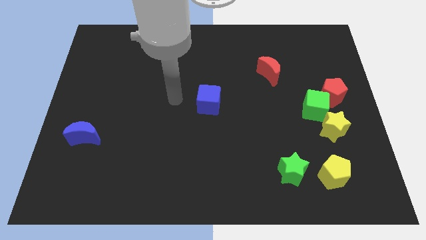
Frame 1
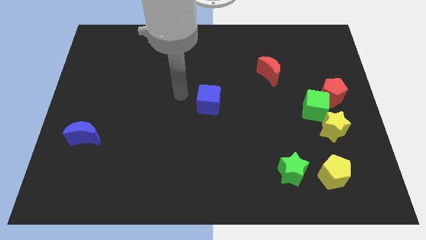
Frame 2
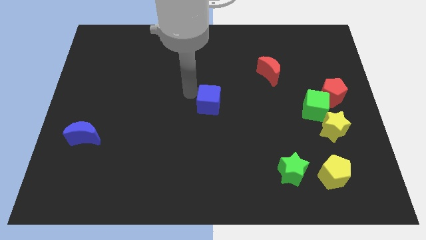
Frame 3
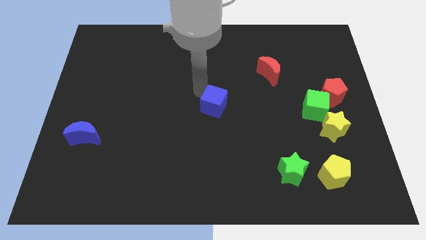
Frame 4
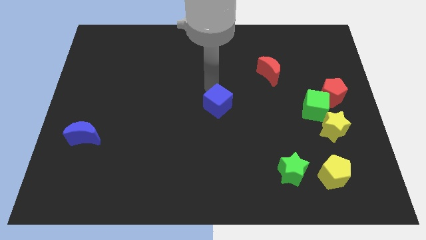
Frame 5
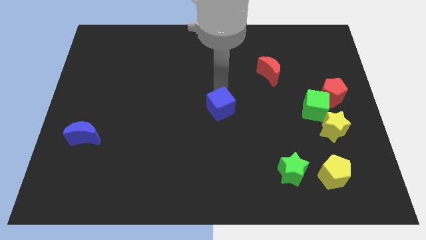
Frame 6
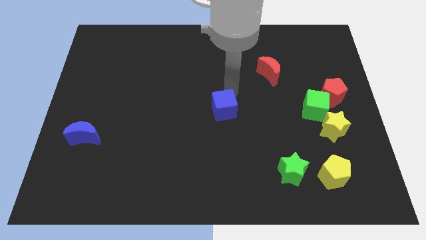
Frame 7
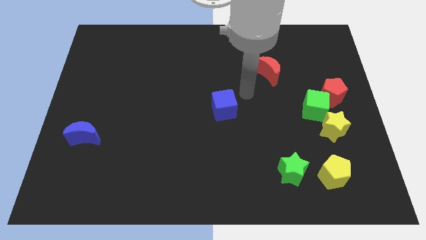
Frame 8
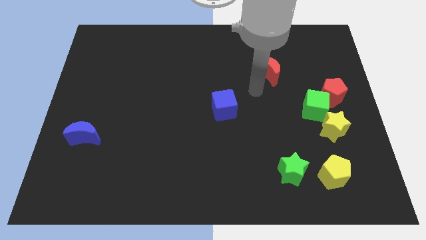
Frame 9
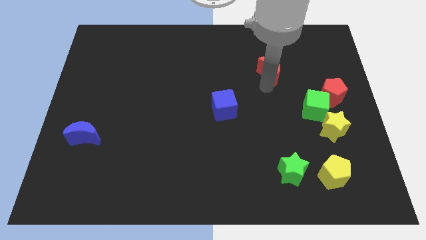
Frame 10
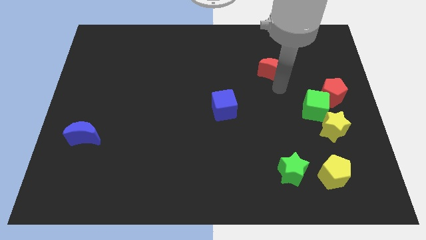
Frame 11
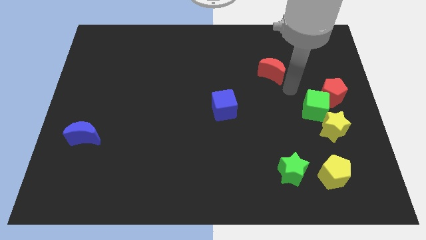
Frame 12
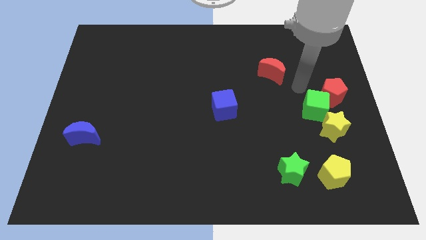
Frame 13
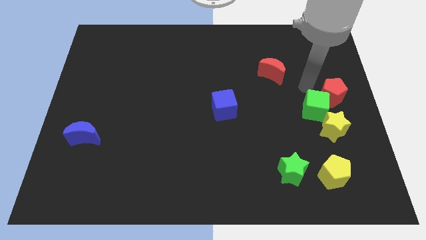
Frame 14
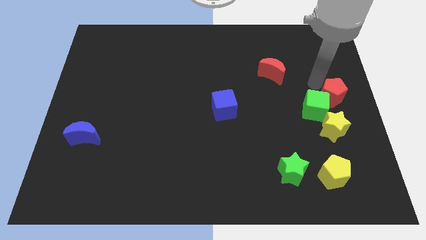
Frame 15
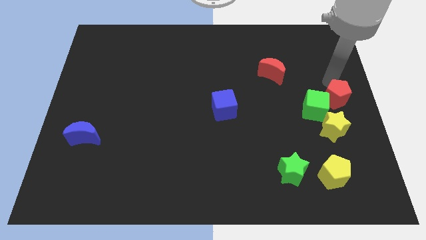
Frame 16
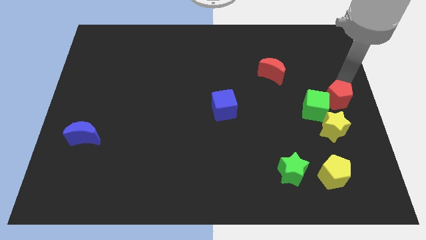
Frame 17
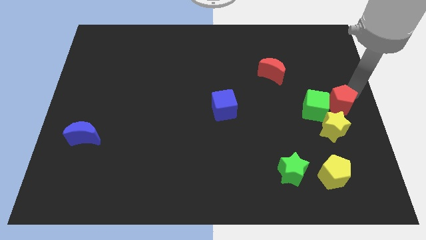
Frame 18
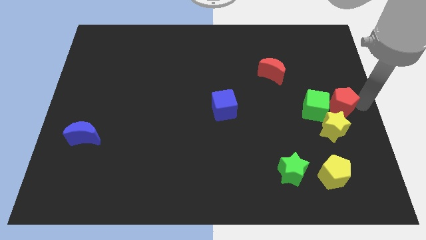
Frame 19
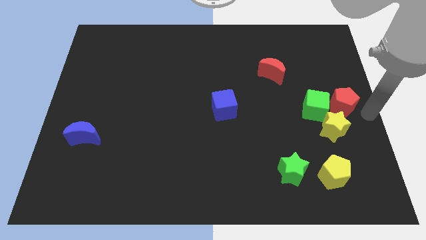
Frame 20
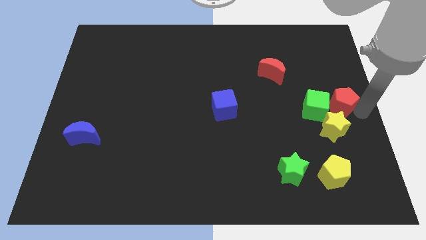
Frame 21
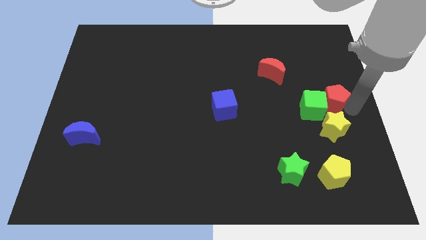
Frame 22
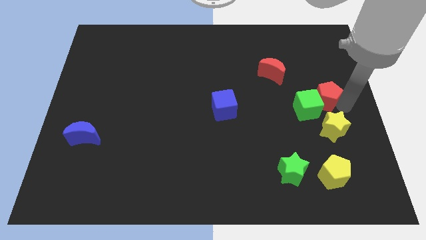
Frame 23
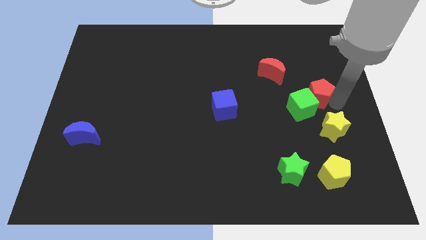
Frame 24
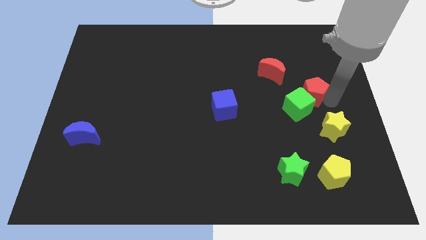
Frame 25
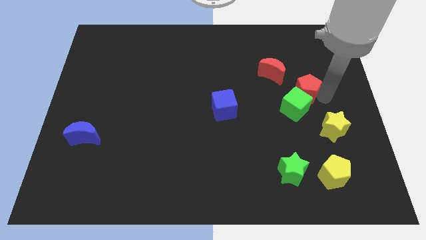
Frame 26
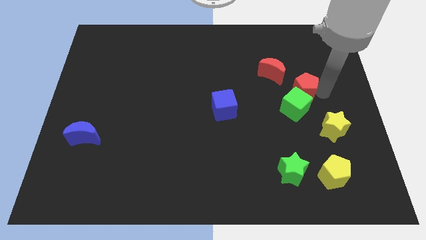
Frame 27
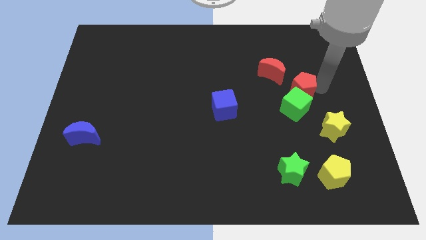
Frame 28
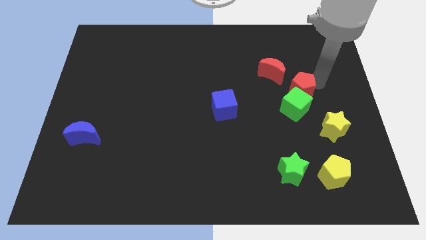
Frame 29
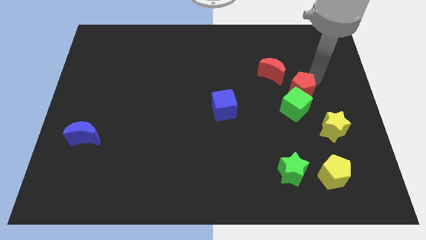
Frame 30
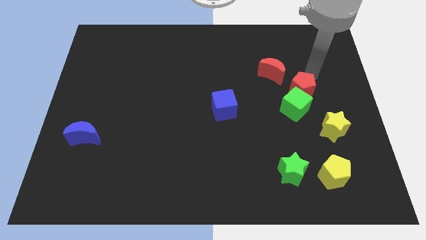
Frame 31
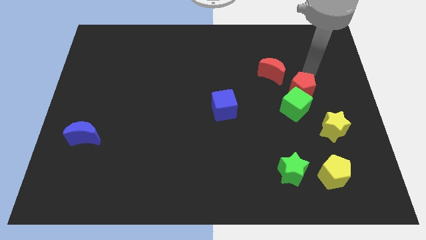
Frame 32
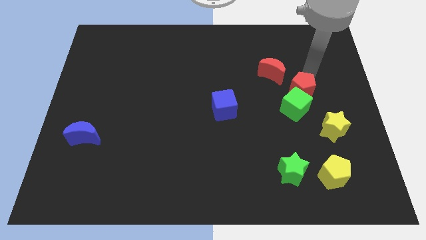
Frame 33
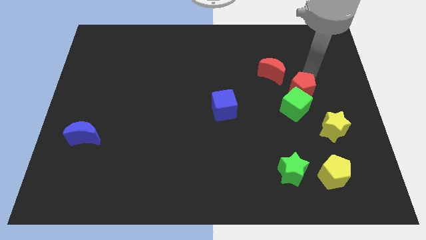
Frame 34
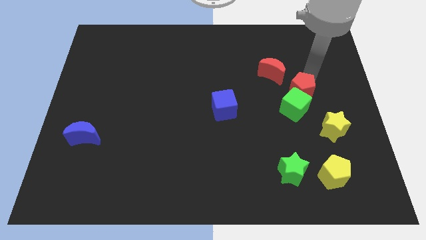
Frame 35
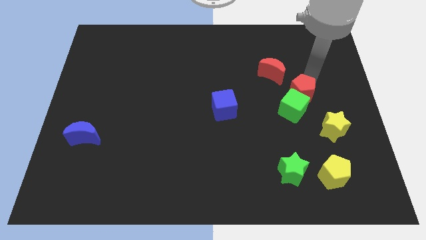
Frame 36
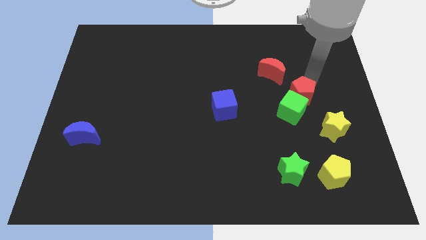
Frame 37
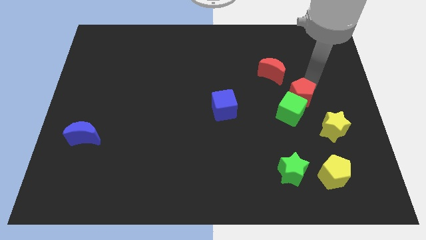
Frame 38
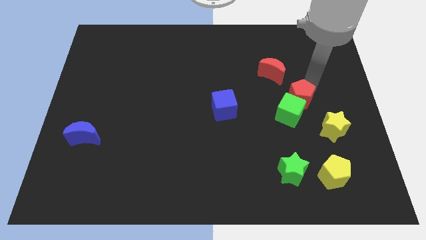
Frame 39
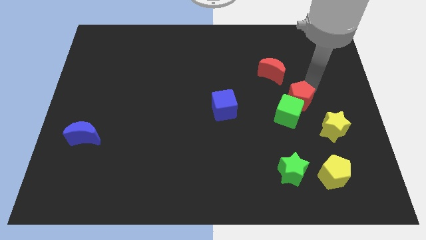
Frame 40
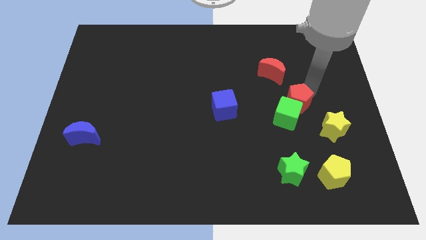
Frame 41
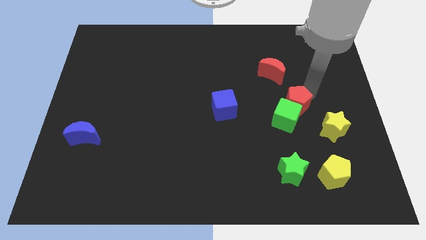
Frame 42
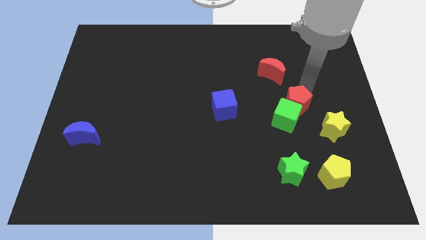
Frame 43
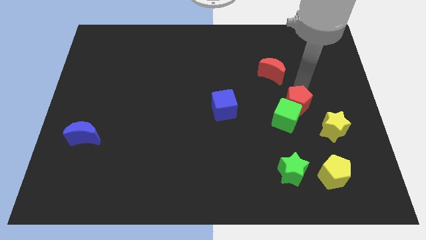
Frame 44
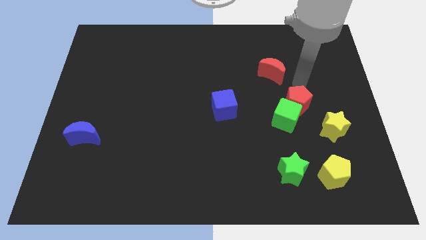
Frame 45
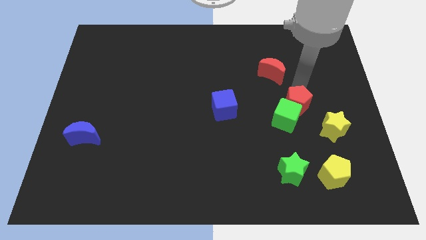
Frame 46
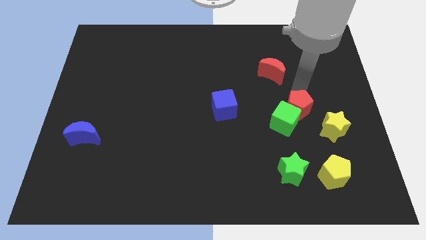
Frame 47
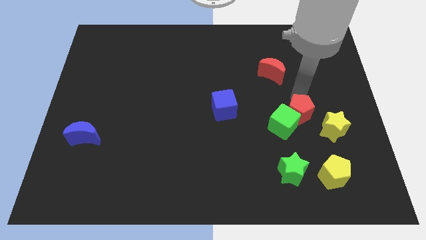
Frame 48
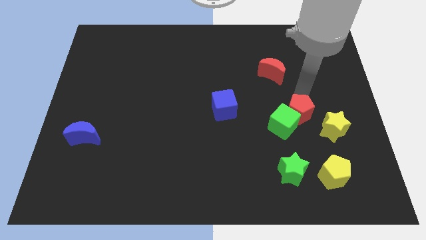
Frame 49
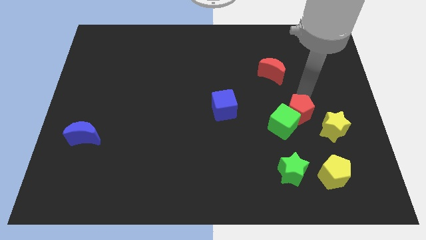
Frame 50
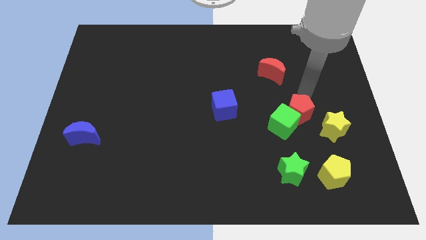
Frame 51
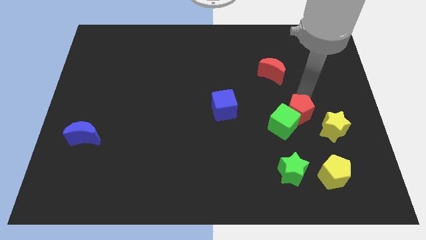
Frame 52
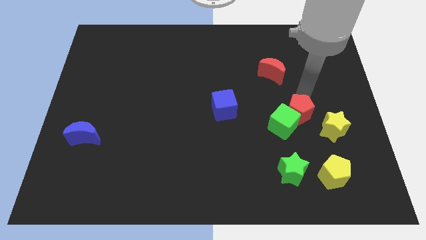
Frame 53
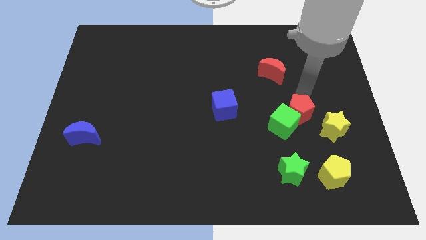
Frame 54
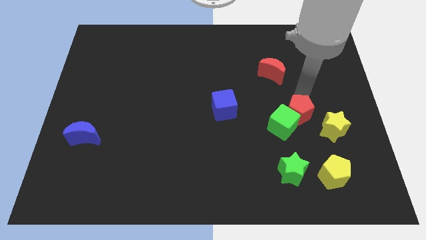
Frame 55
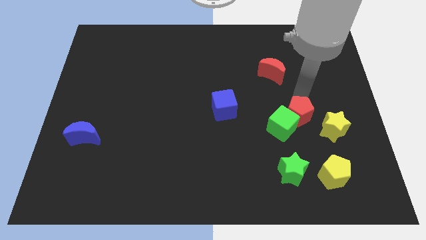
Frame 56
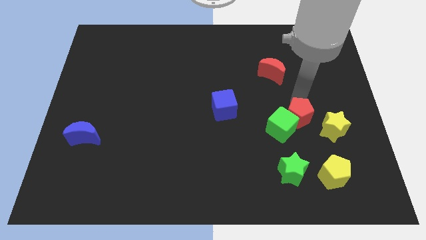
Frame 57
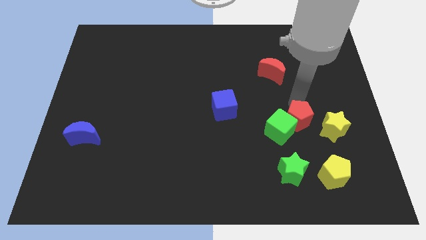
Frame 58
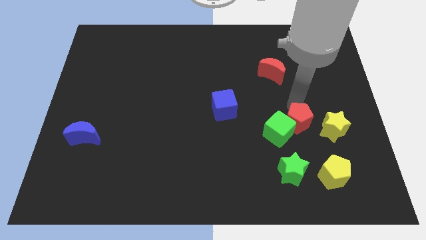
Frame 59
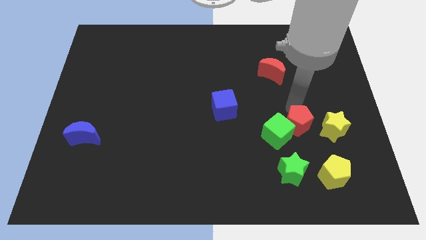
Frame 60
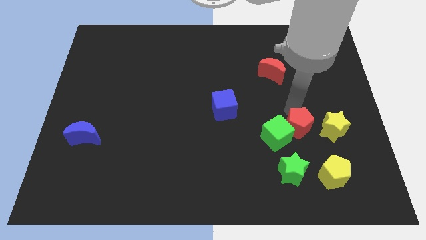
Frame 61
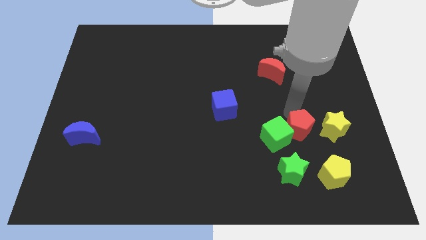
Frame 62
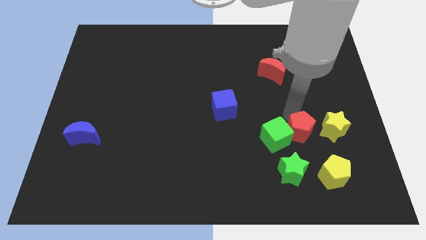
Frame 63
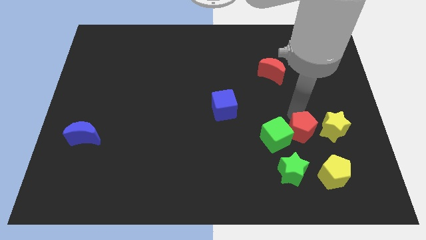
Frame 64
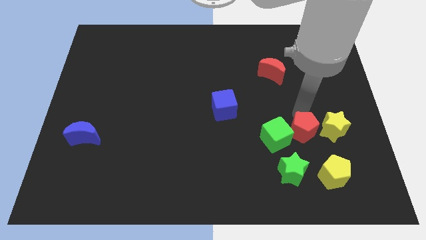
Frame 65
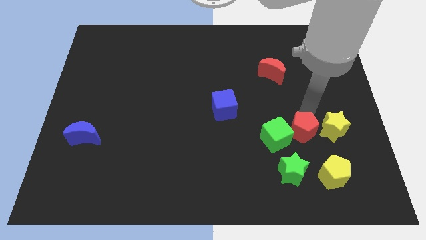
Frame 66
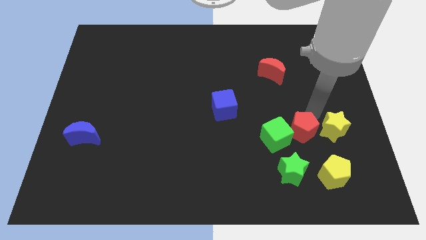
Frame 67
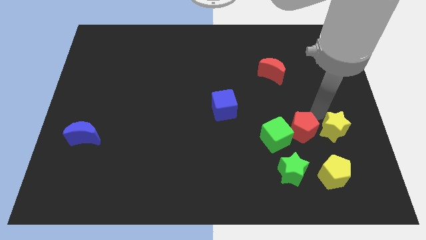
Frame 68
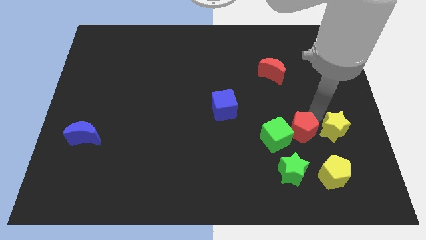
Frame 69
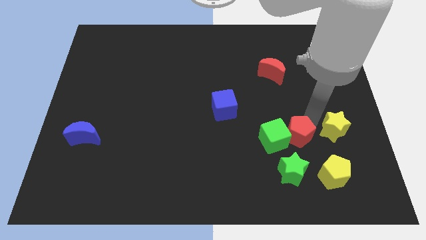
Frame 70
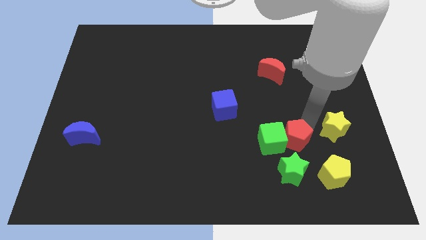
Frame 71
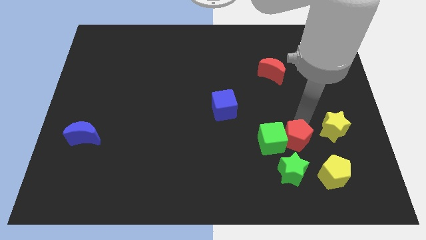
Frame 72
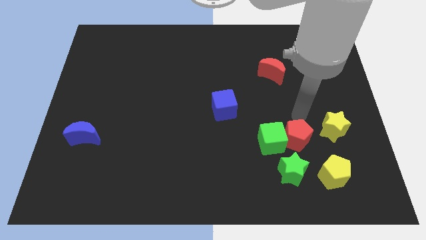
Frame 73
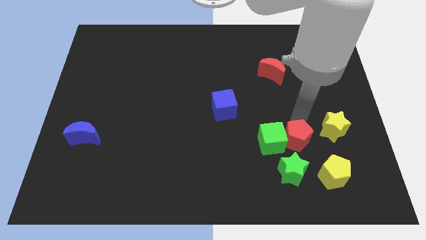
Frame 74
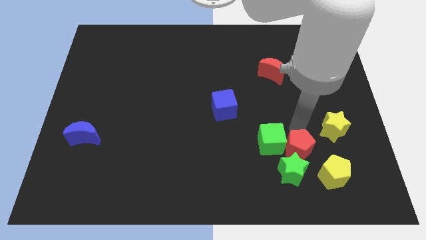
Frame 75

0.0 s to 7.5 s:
move the red pentagon towards the green star
